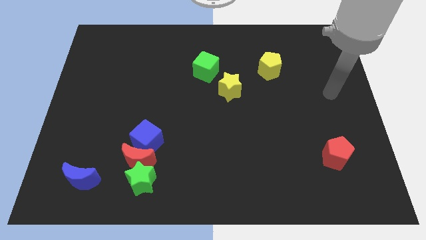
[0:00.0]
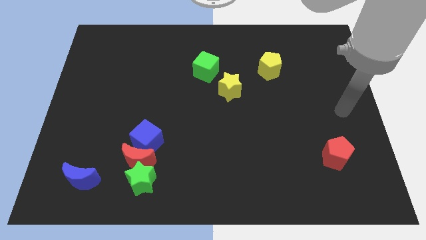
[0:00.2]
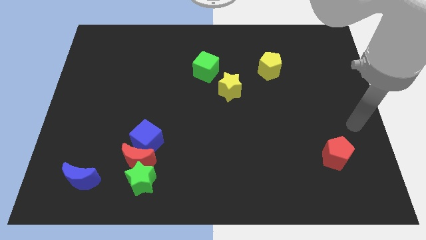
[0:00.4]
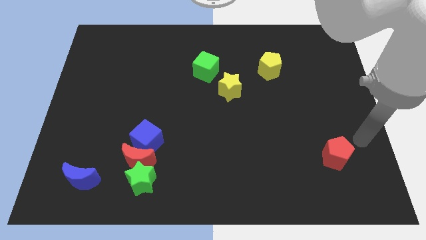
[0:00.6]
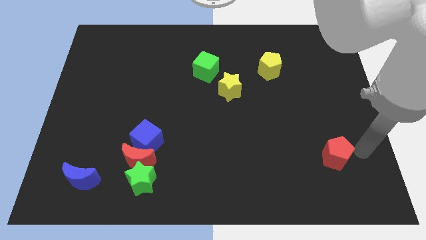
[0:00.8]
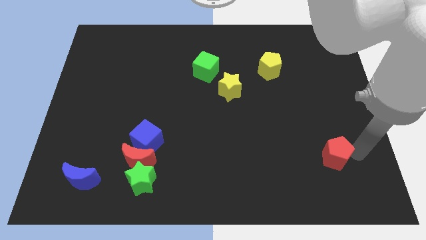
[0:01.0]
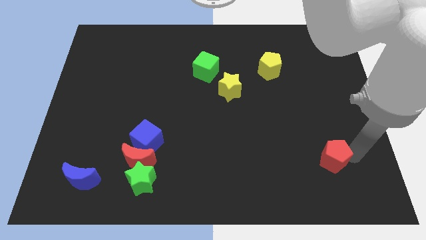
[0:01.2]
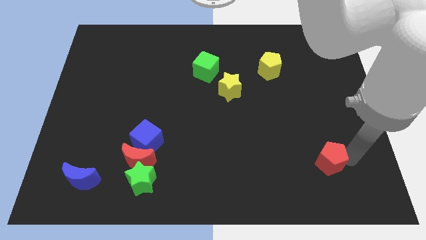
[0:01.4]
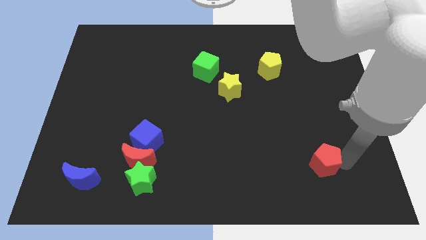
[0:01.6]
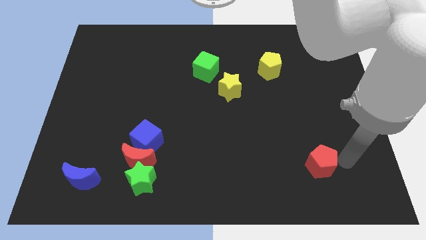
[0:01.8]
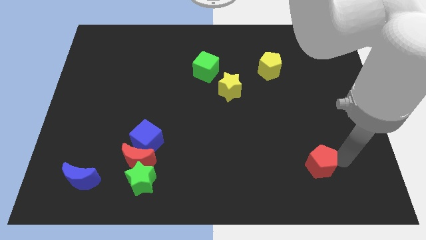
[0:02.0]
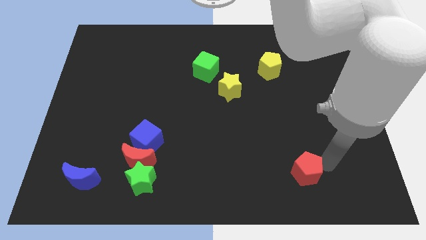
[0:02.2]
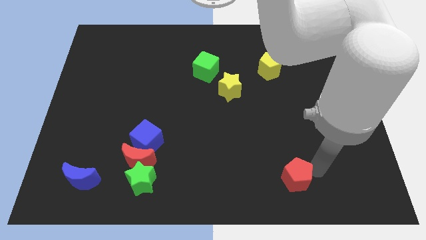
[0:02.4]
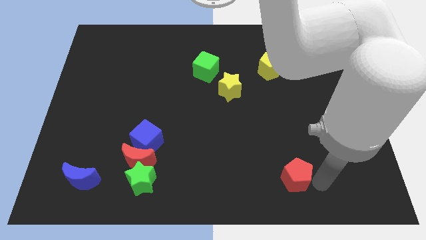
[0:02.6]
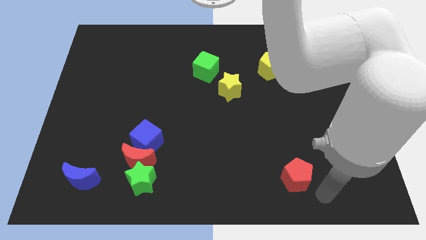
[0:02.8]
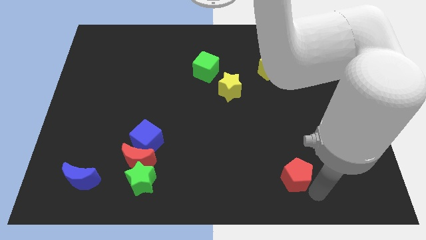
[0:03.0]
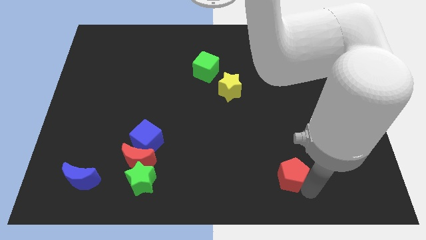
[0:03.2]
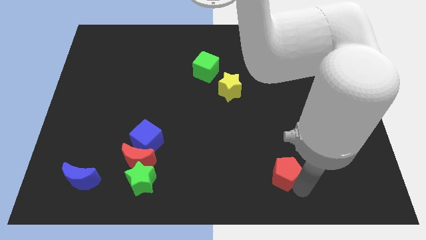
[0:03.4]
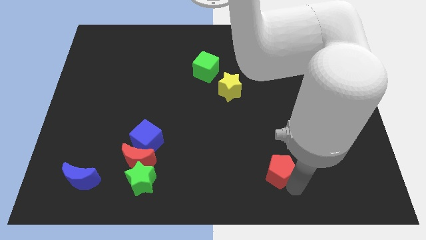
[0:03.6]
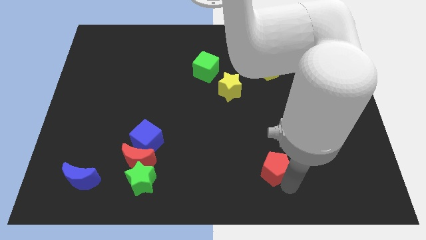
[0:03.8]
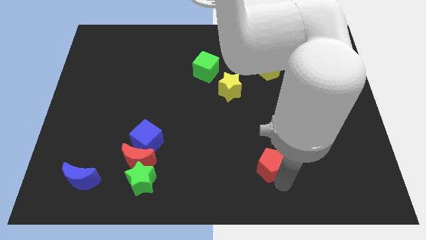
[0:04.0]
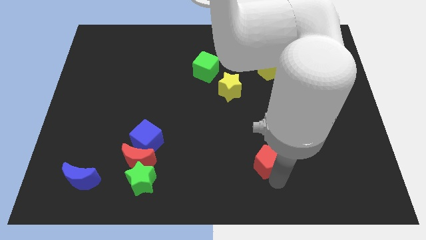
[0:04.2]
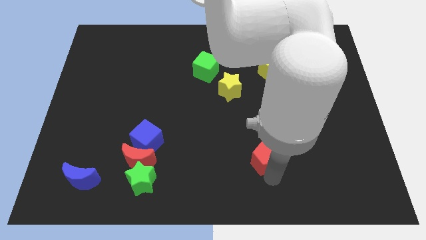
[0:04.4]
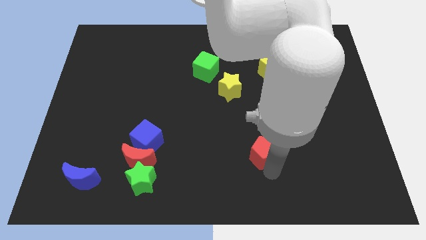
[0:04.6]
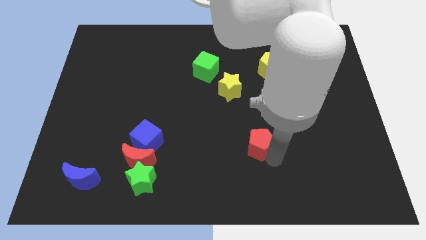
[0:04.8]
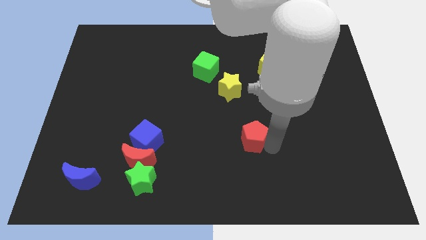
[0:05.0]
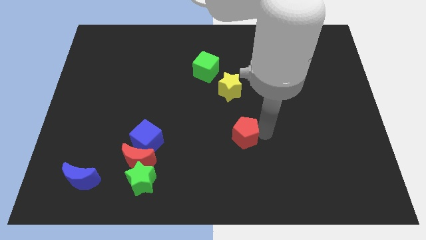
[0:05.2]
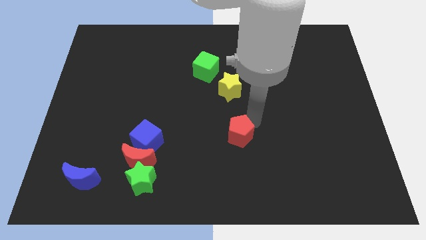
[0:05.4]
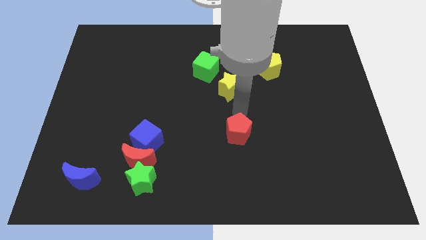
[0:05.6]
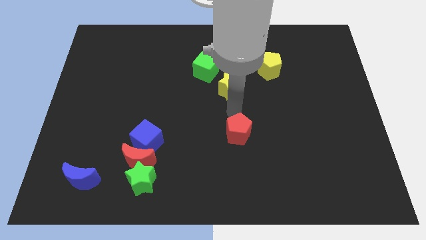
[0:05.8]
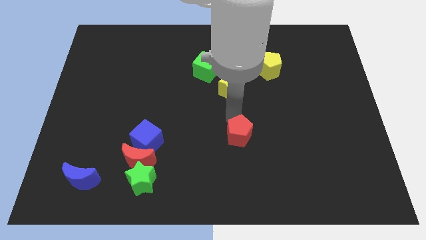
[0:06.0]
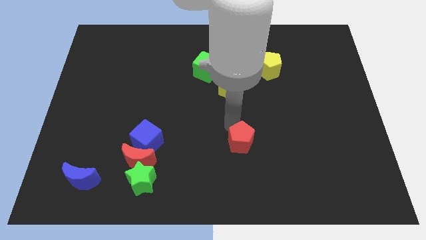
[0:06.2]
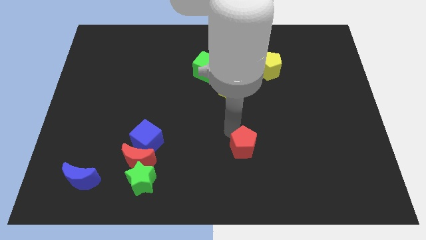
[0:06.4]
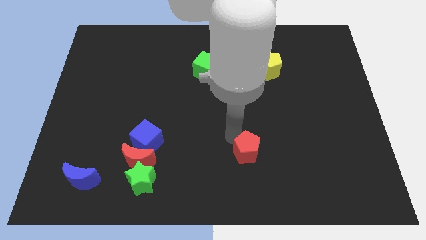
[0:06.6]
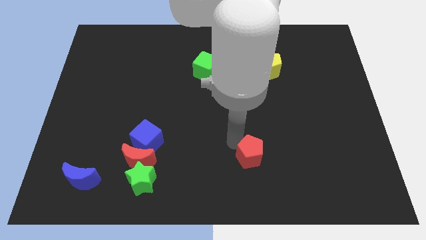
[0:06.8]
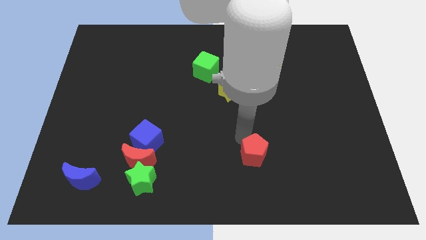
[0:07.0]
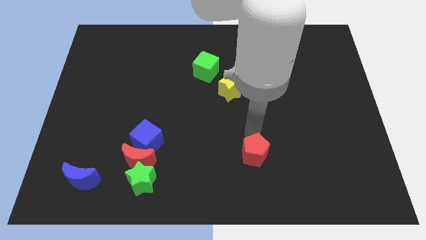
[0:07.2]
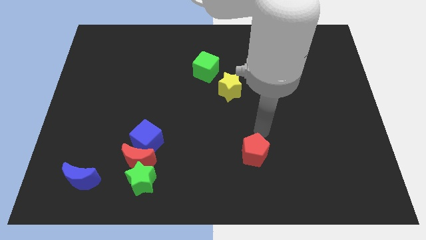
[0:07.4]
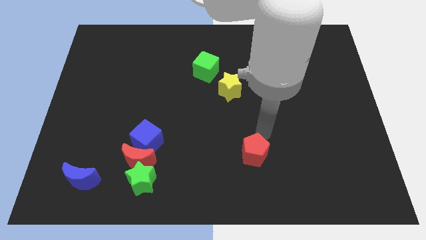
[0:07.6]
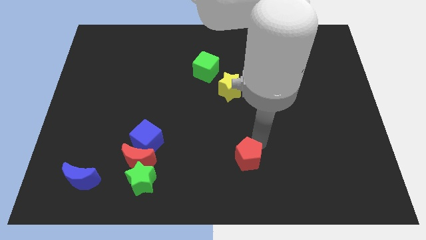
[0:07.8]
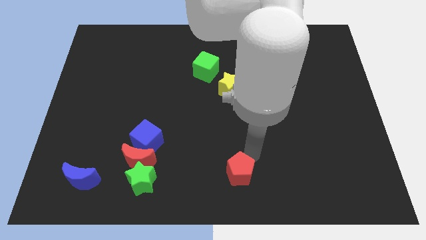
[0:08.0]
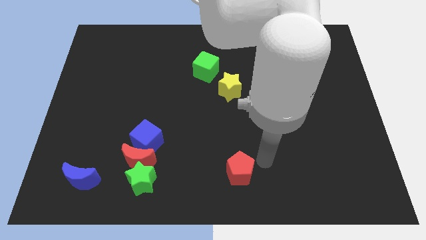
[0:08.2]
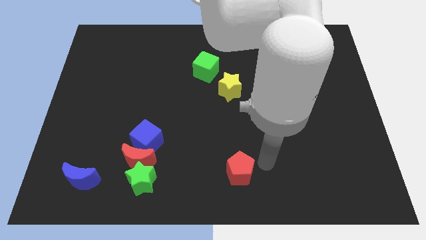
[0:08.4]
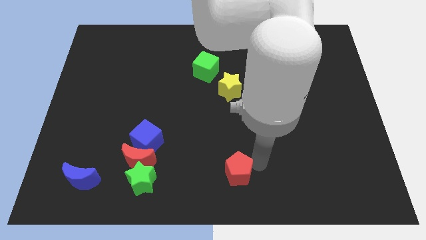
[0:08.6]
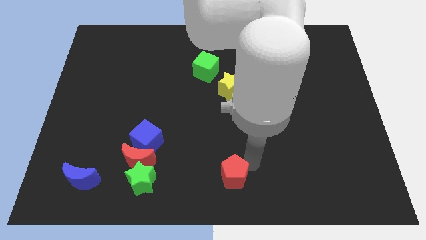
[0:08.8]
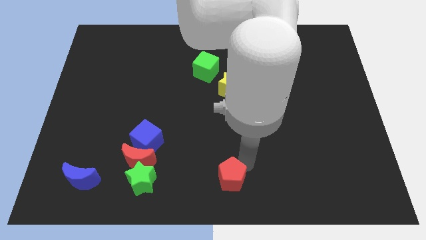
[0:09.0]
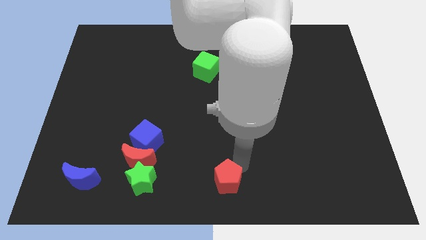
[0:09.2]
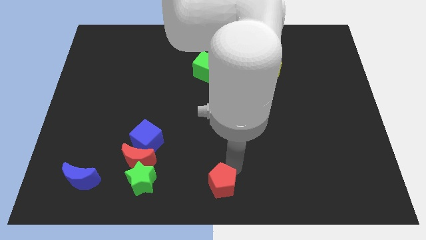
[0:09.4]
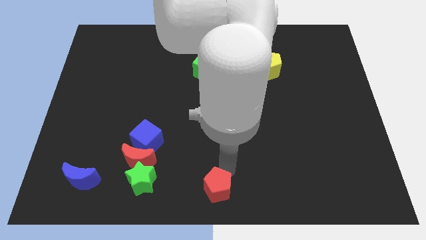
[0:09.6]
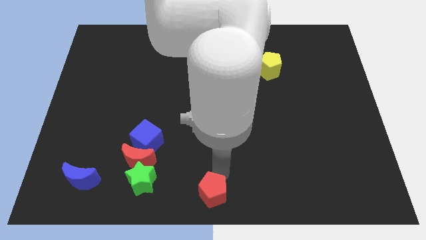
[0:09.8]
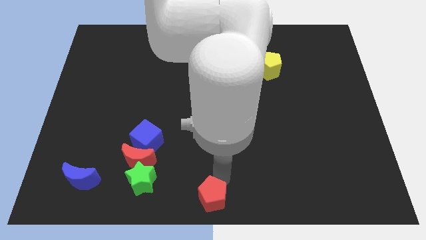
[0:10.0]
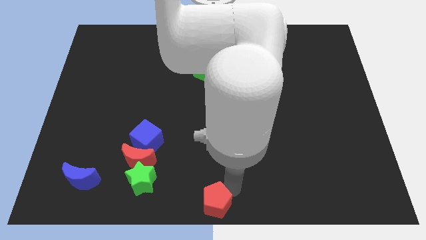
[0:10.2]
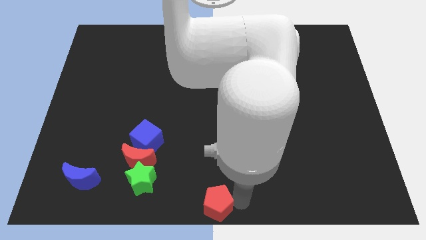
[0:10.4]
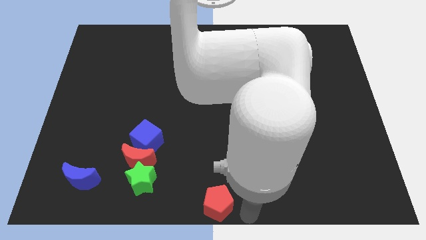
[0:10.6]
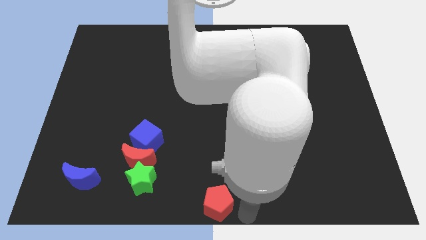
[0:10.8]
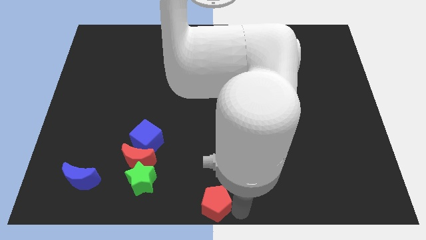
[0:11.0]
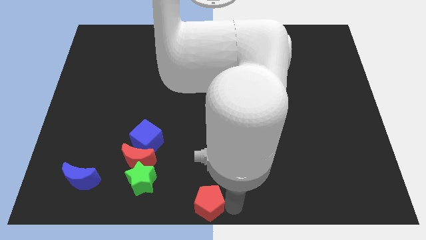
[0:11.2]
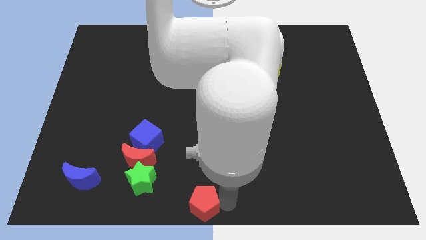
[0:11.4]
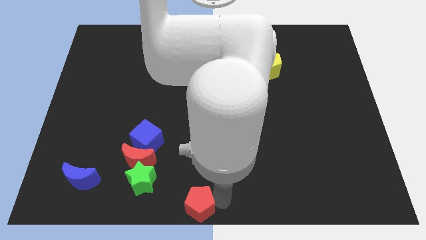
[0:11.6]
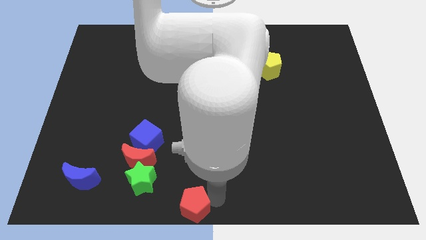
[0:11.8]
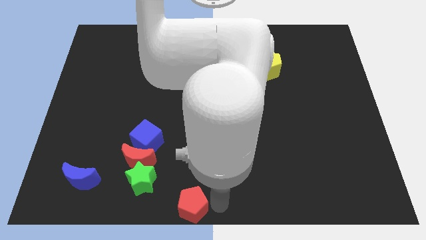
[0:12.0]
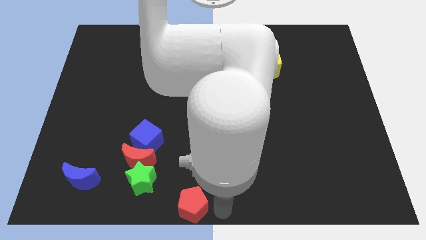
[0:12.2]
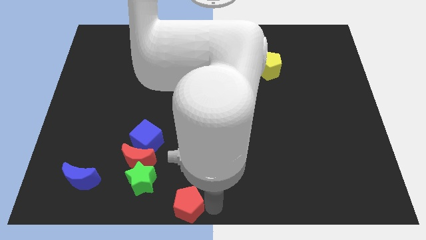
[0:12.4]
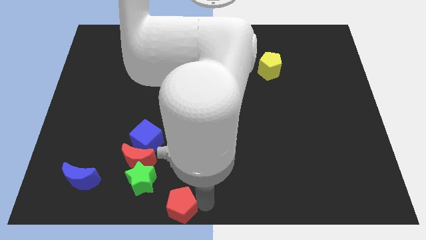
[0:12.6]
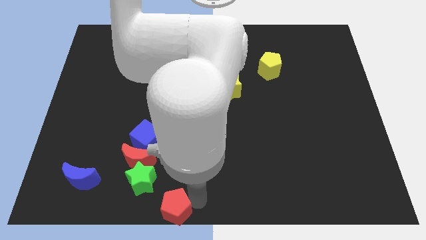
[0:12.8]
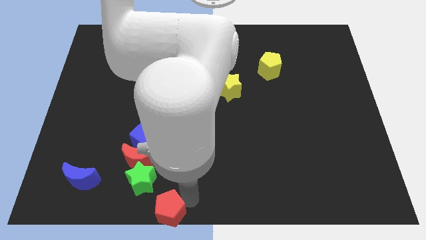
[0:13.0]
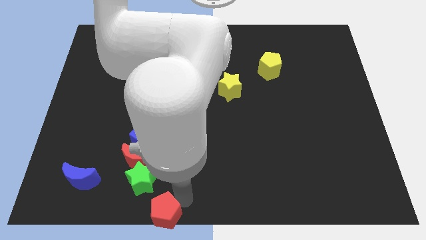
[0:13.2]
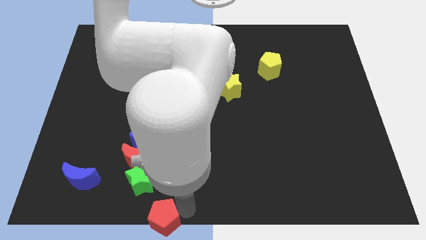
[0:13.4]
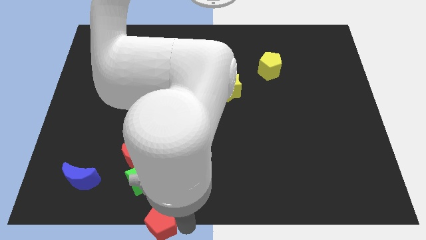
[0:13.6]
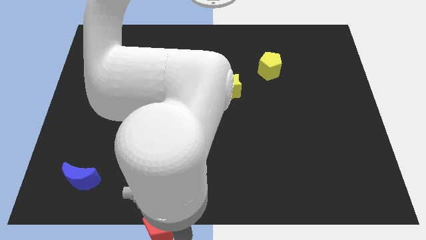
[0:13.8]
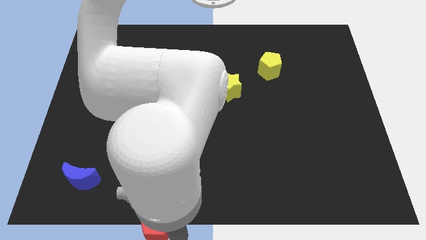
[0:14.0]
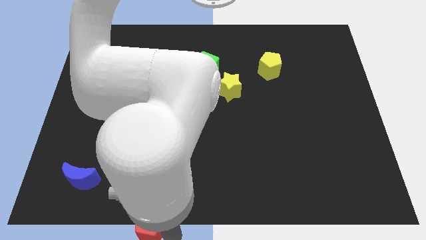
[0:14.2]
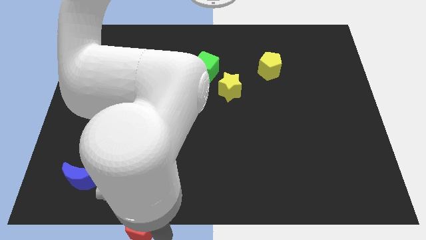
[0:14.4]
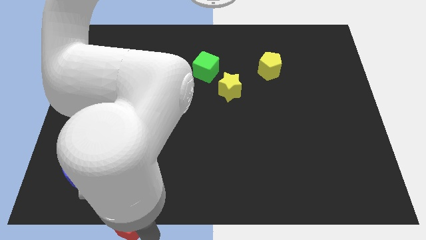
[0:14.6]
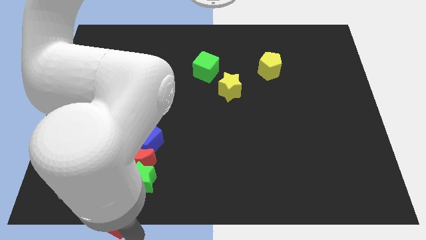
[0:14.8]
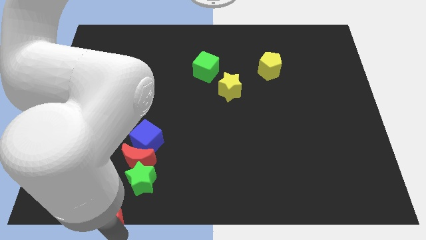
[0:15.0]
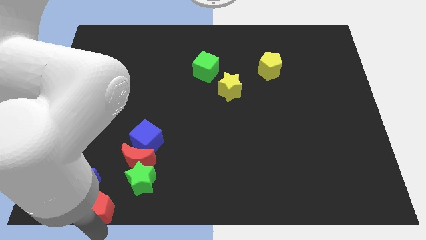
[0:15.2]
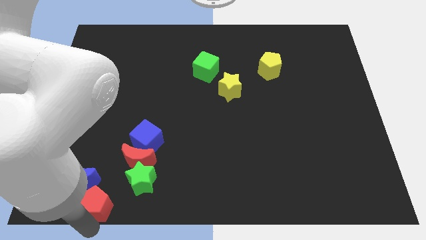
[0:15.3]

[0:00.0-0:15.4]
push the red pentagon to the bottom left of the red moon
